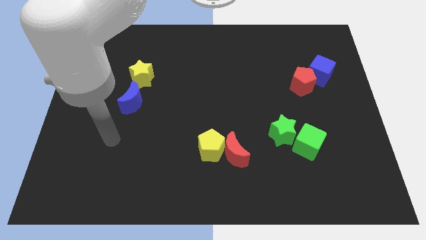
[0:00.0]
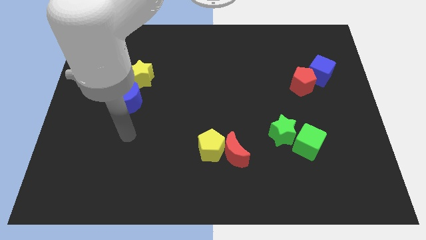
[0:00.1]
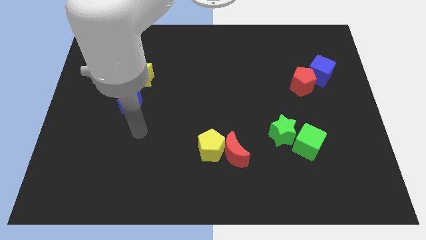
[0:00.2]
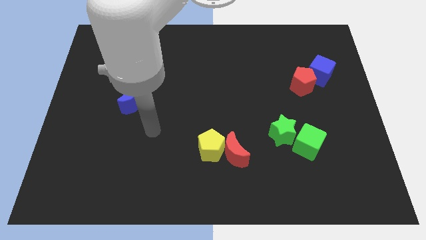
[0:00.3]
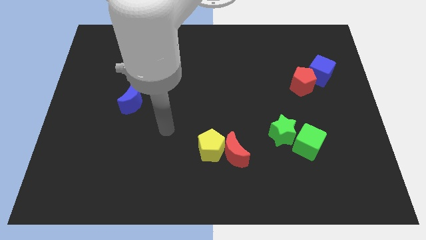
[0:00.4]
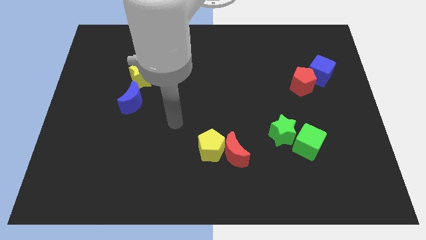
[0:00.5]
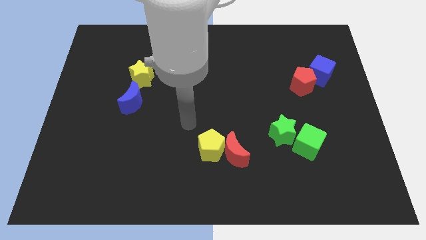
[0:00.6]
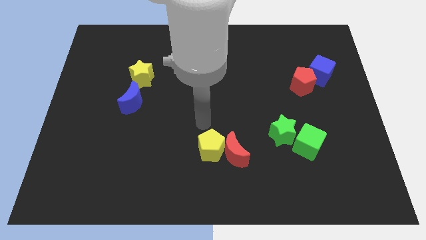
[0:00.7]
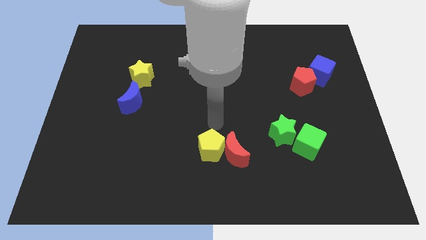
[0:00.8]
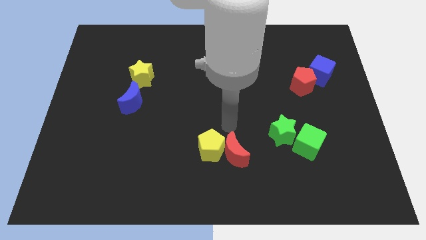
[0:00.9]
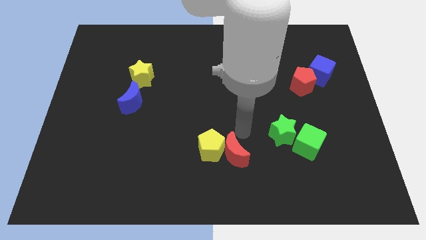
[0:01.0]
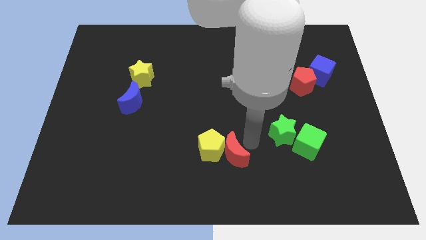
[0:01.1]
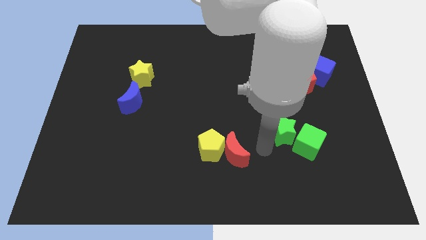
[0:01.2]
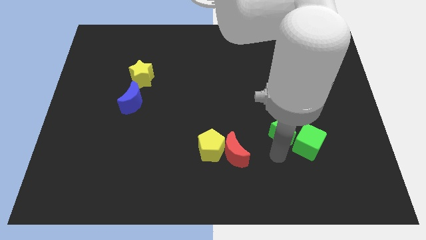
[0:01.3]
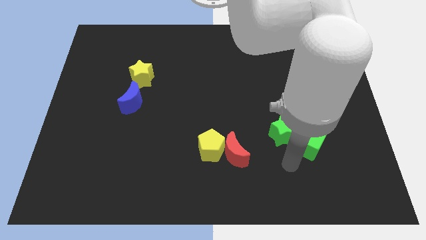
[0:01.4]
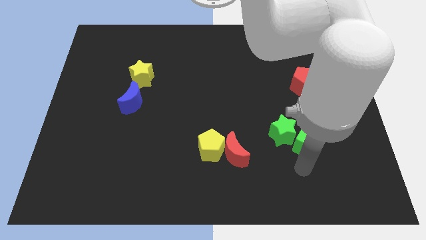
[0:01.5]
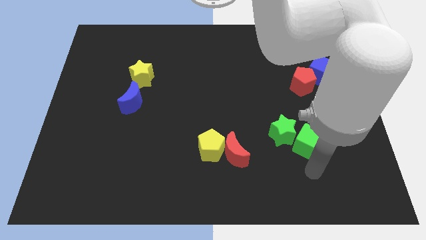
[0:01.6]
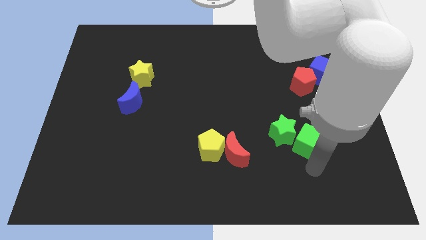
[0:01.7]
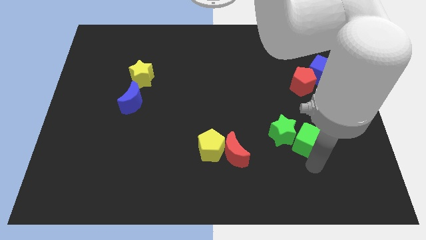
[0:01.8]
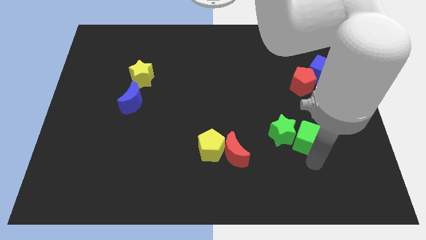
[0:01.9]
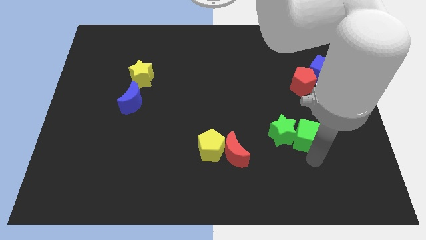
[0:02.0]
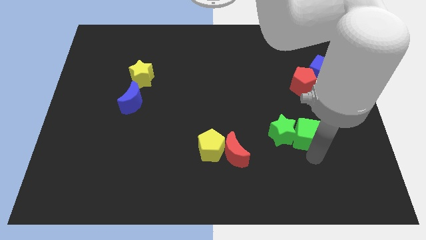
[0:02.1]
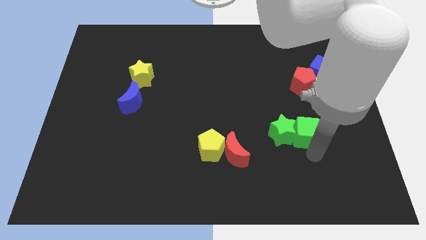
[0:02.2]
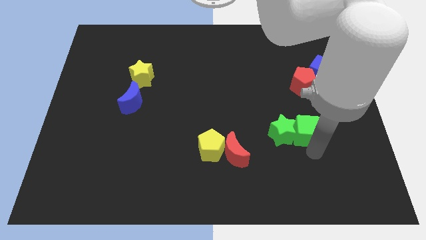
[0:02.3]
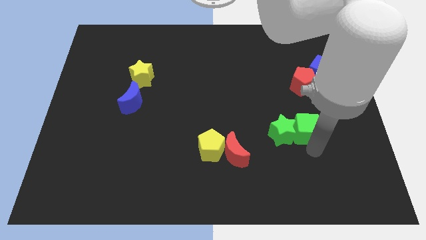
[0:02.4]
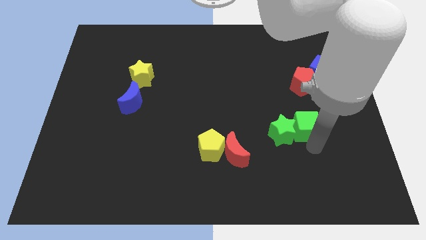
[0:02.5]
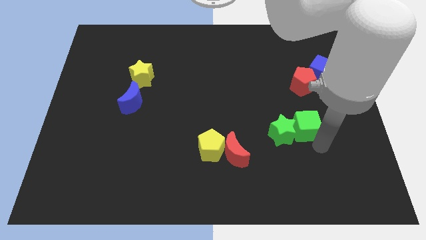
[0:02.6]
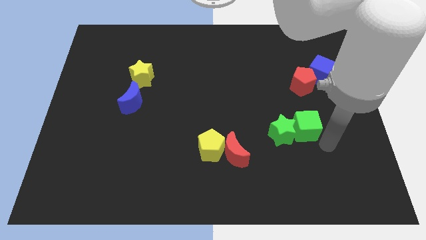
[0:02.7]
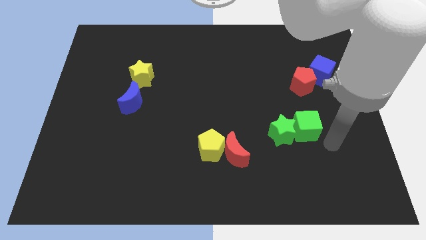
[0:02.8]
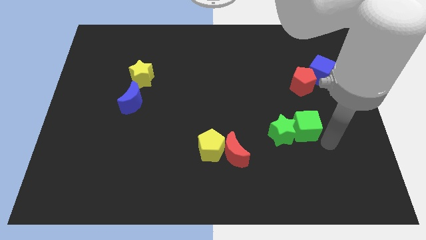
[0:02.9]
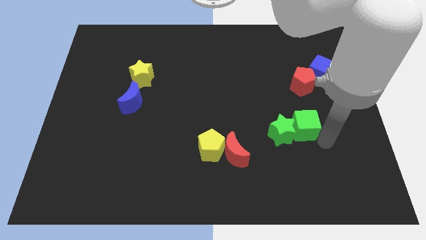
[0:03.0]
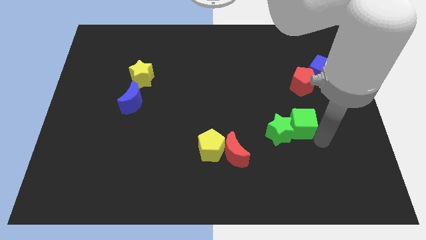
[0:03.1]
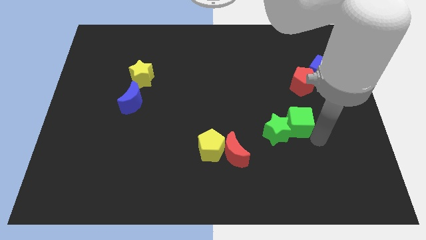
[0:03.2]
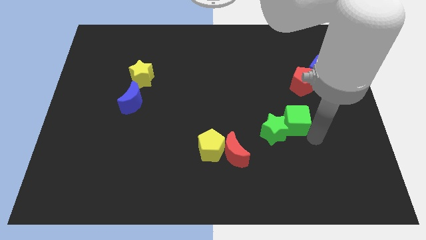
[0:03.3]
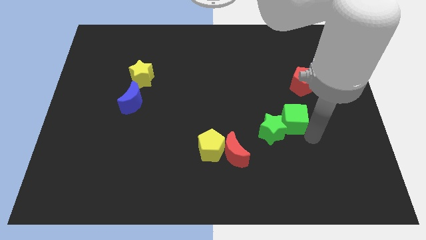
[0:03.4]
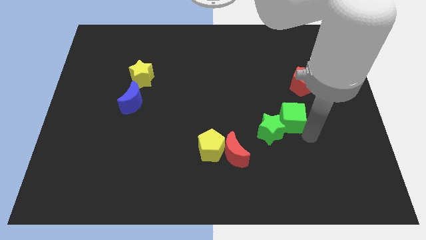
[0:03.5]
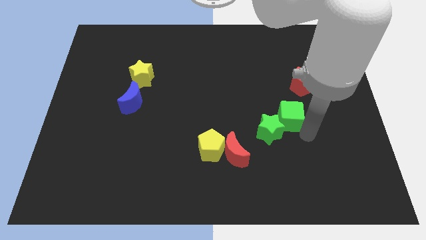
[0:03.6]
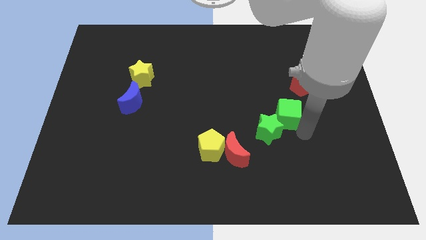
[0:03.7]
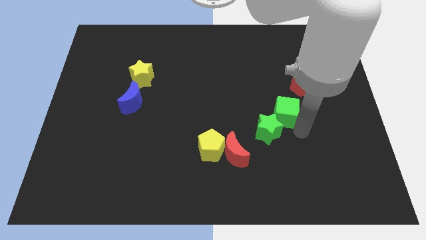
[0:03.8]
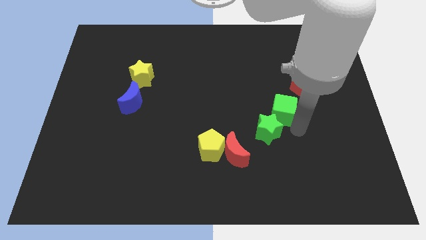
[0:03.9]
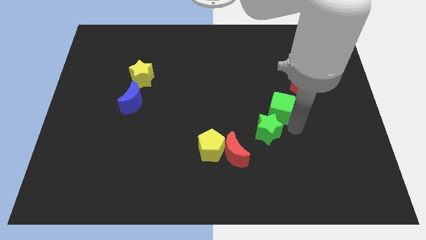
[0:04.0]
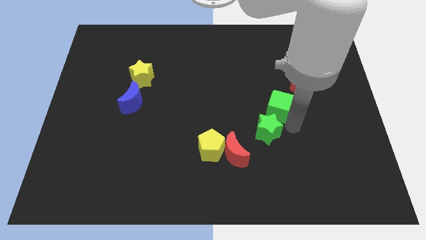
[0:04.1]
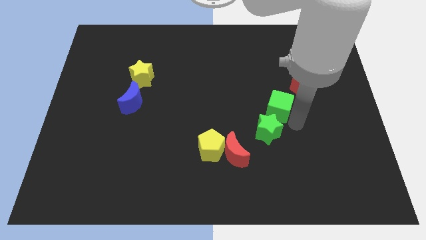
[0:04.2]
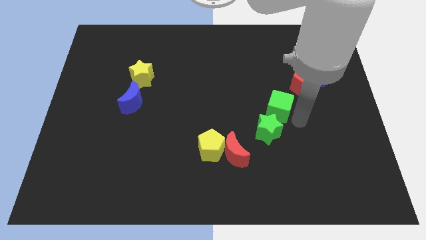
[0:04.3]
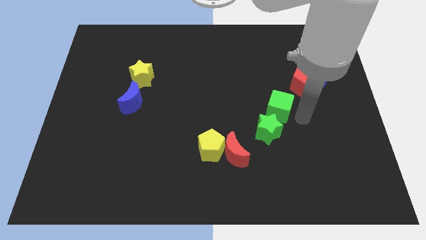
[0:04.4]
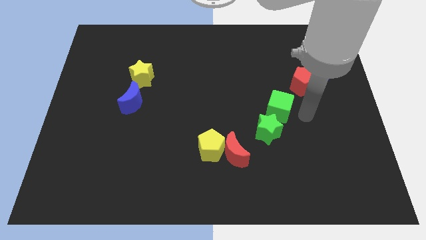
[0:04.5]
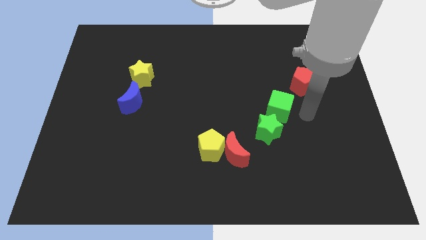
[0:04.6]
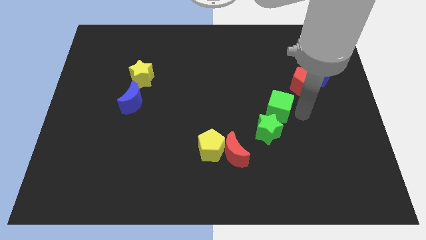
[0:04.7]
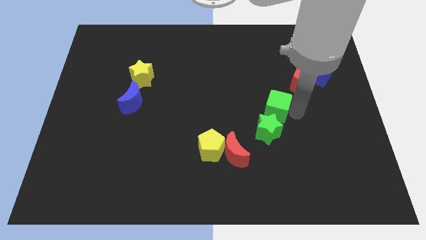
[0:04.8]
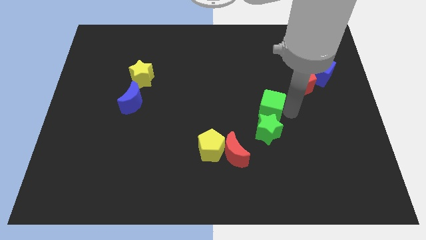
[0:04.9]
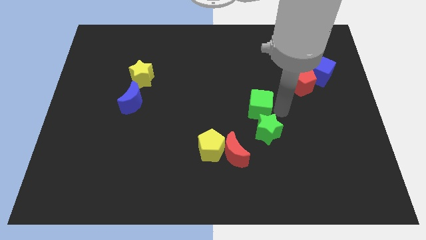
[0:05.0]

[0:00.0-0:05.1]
push the green cube to the center

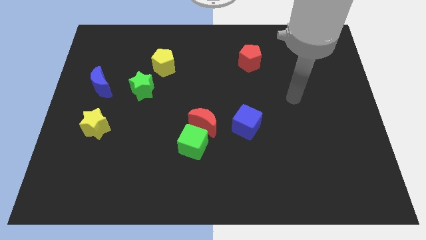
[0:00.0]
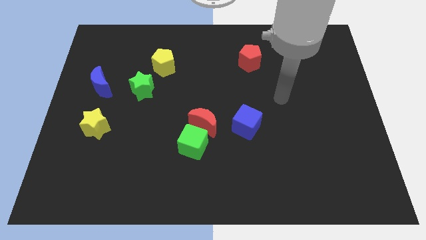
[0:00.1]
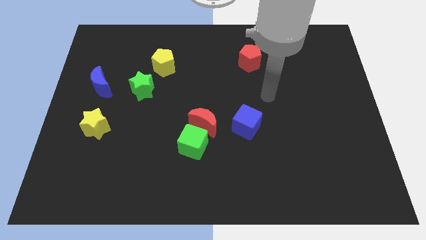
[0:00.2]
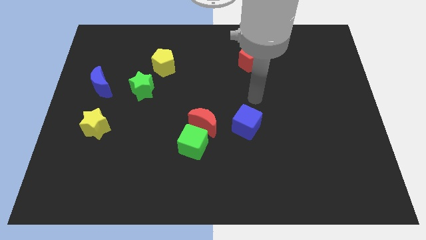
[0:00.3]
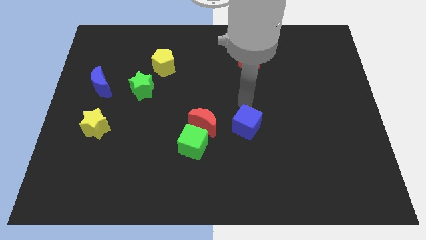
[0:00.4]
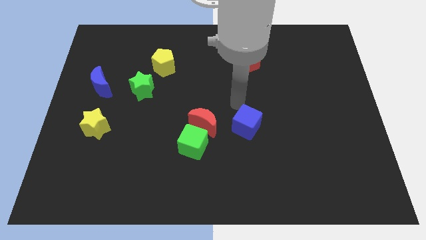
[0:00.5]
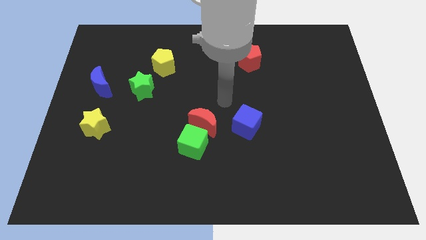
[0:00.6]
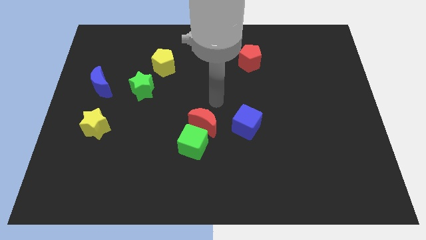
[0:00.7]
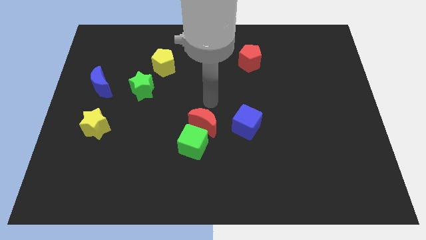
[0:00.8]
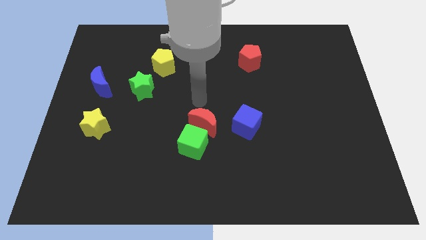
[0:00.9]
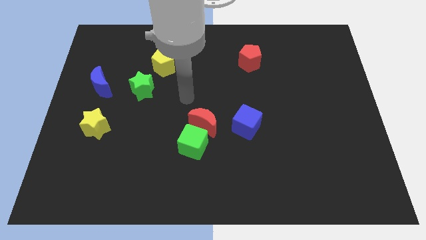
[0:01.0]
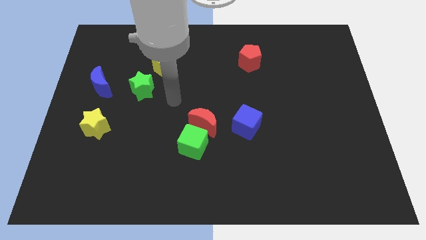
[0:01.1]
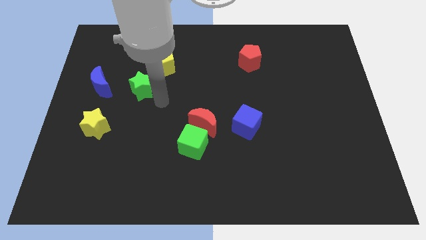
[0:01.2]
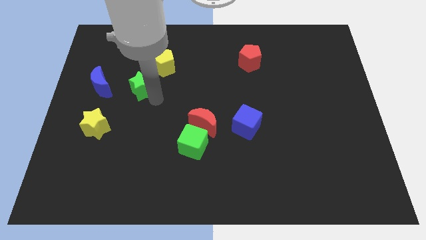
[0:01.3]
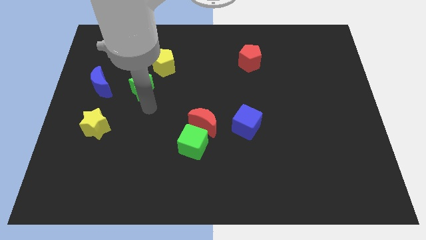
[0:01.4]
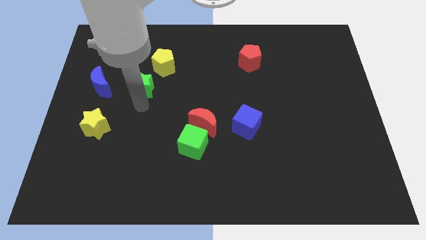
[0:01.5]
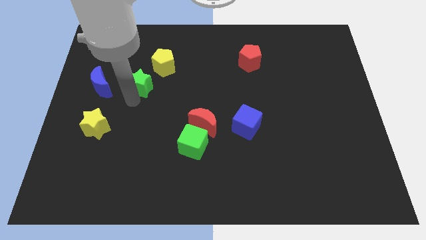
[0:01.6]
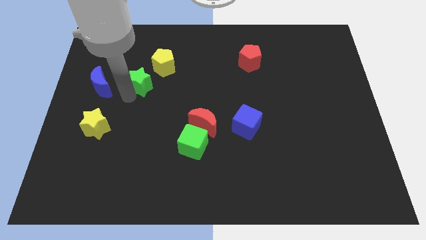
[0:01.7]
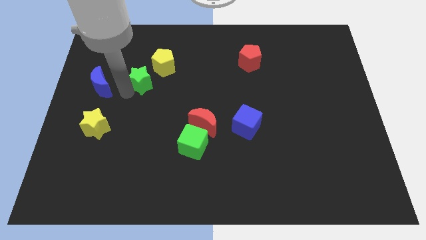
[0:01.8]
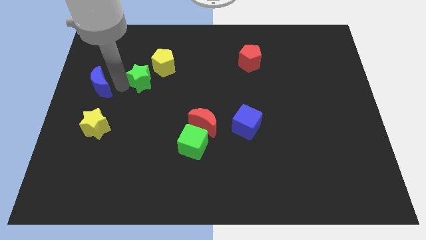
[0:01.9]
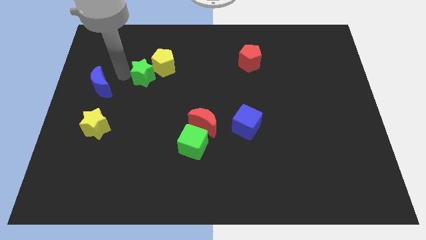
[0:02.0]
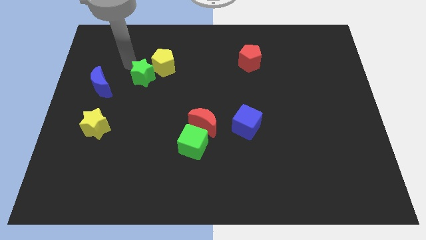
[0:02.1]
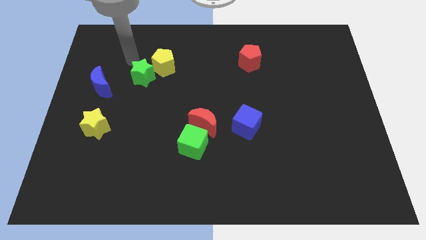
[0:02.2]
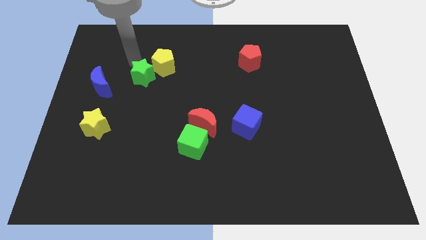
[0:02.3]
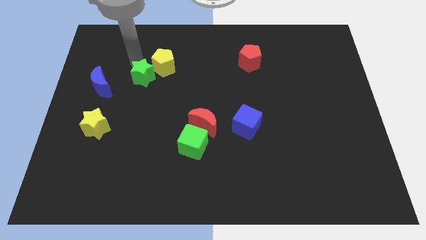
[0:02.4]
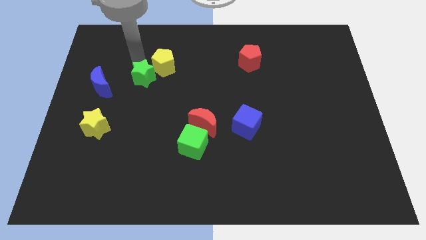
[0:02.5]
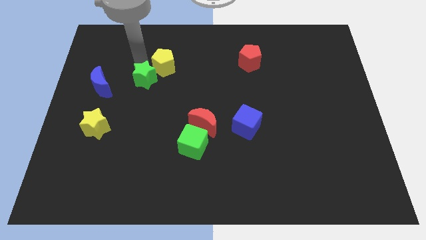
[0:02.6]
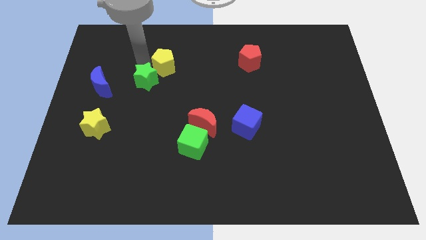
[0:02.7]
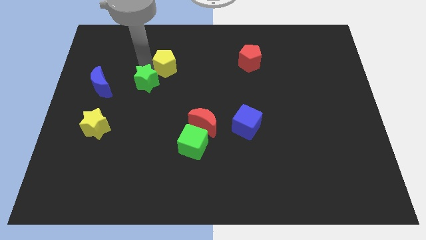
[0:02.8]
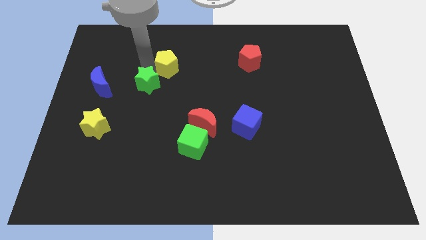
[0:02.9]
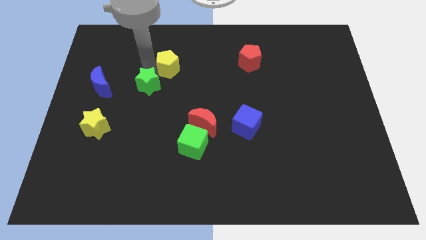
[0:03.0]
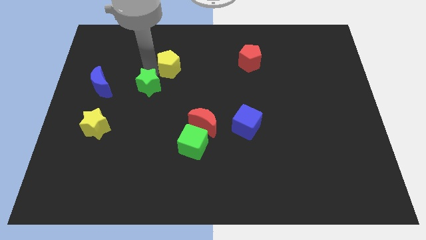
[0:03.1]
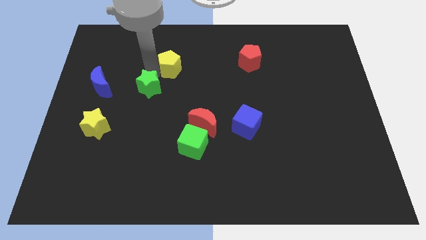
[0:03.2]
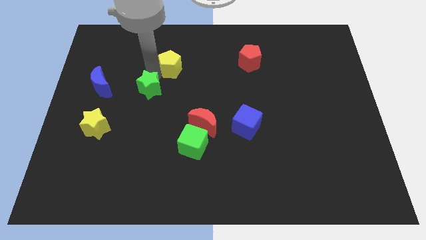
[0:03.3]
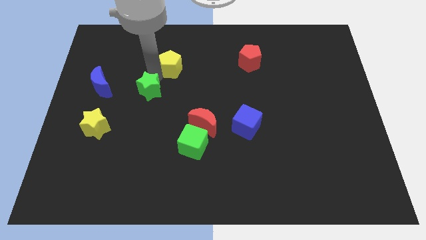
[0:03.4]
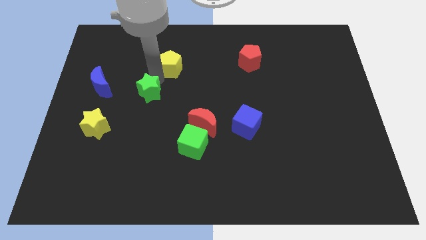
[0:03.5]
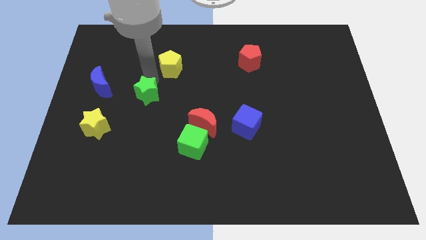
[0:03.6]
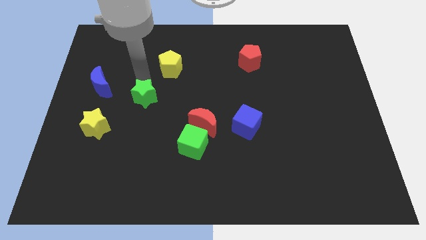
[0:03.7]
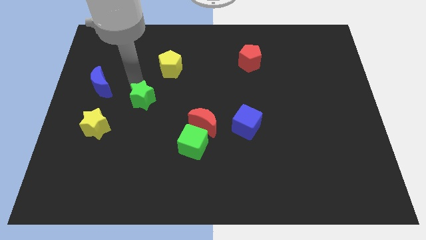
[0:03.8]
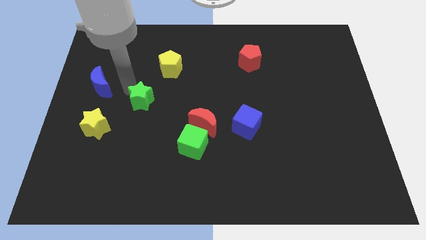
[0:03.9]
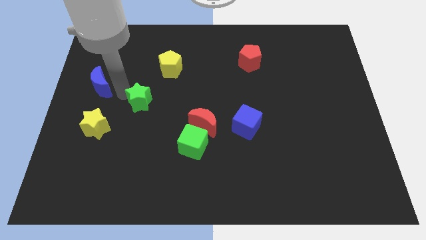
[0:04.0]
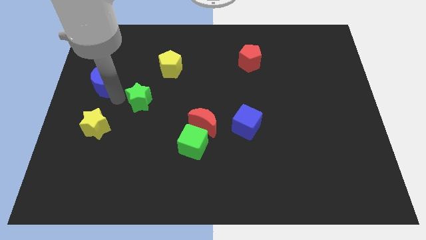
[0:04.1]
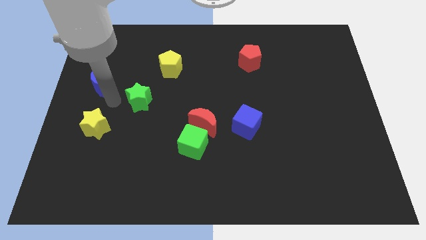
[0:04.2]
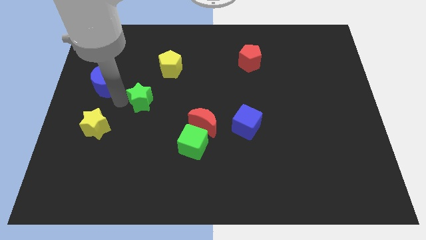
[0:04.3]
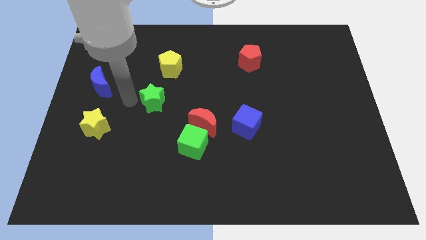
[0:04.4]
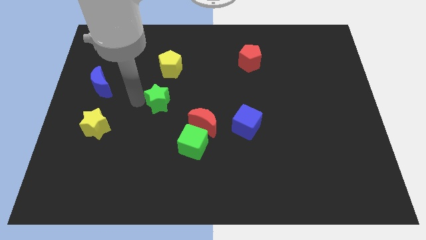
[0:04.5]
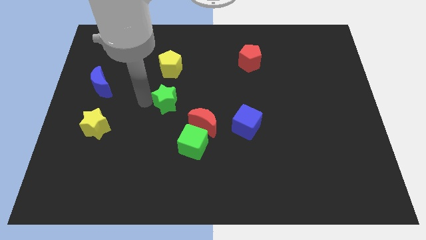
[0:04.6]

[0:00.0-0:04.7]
slide the green star to the center of the board
